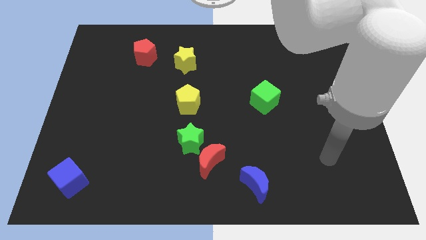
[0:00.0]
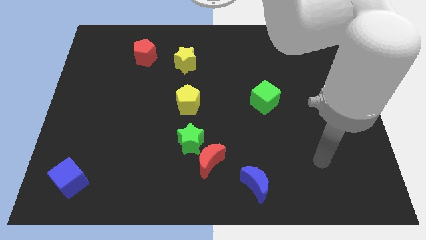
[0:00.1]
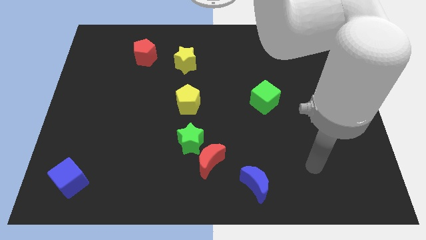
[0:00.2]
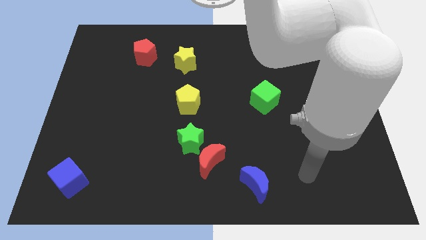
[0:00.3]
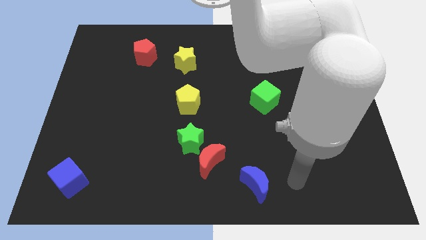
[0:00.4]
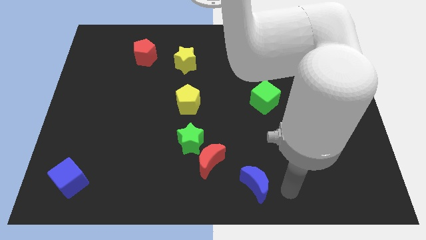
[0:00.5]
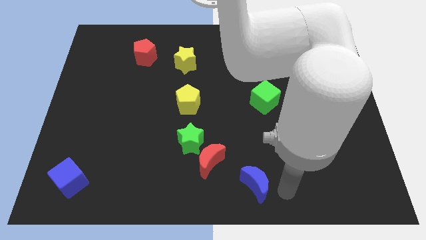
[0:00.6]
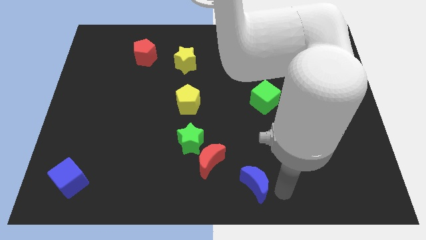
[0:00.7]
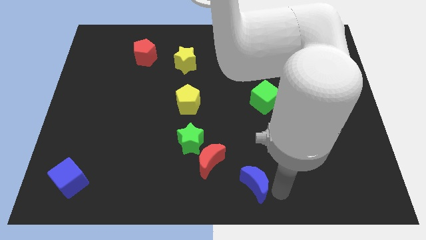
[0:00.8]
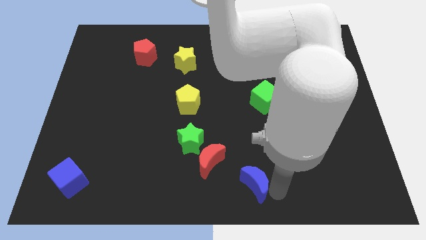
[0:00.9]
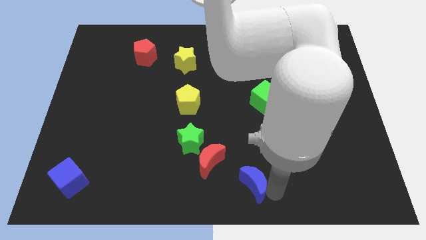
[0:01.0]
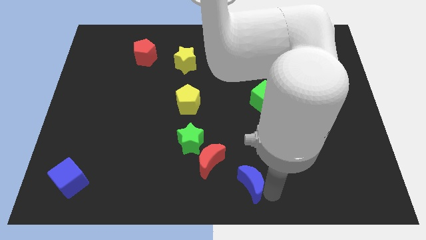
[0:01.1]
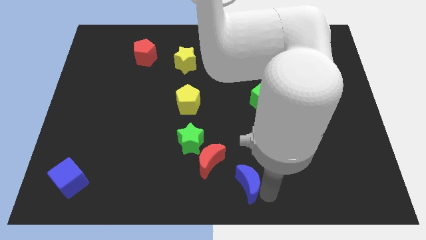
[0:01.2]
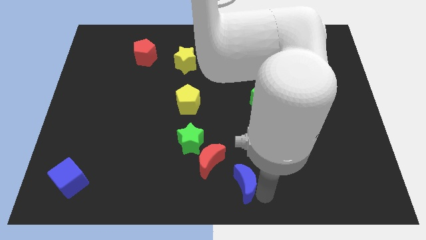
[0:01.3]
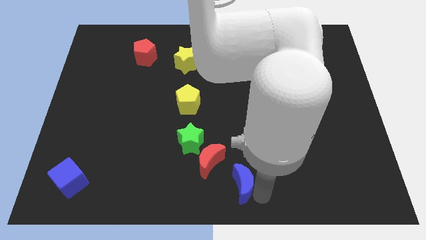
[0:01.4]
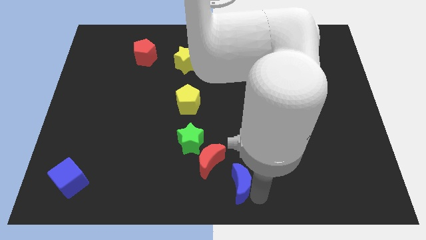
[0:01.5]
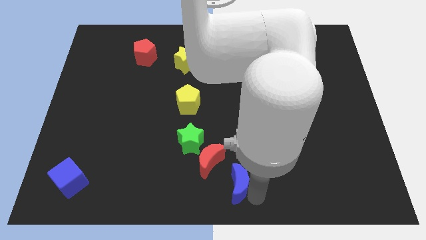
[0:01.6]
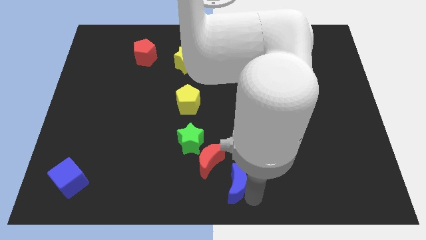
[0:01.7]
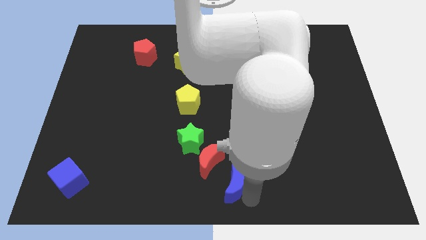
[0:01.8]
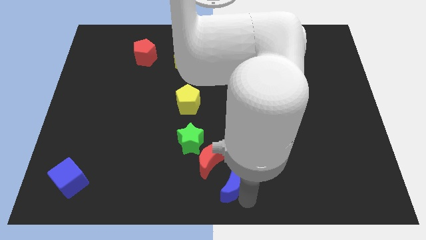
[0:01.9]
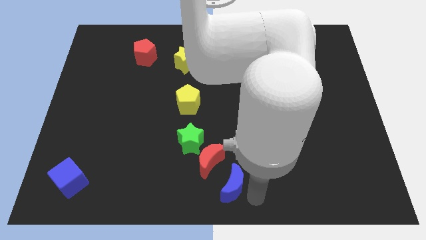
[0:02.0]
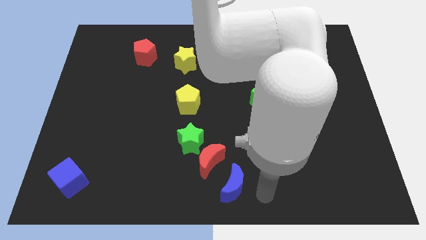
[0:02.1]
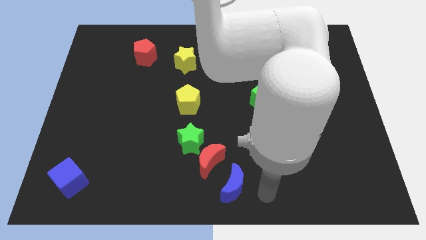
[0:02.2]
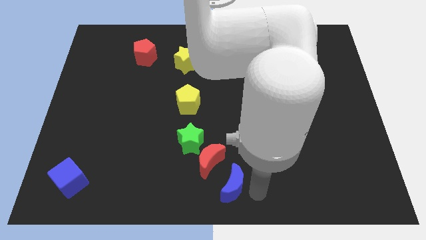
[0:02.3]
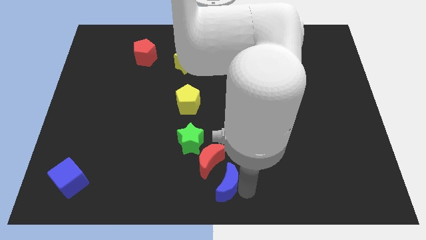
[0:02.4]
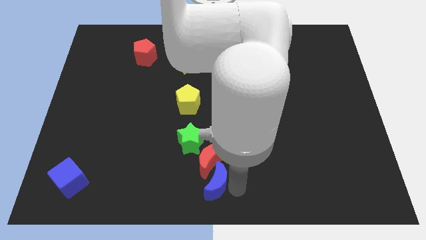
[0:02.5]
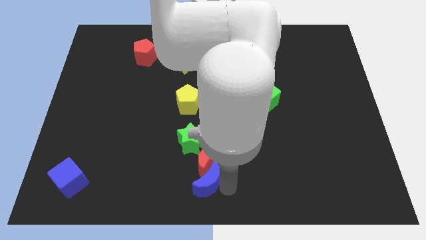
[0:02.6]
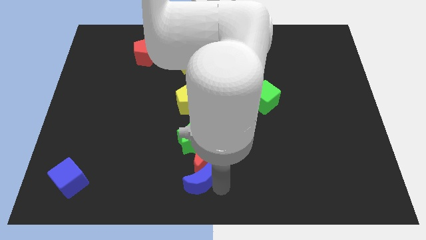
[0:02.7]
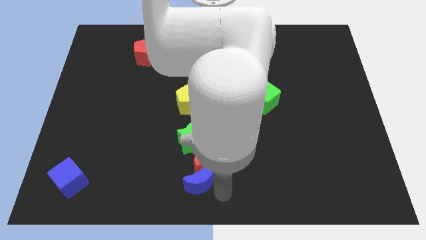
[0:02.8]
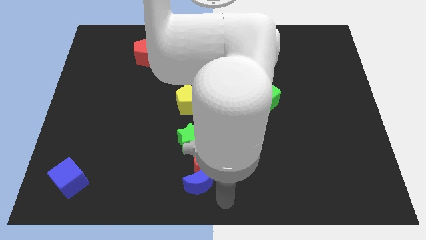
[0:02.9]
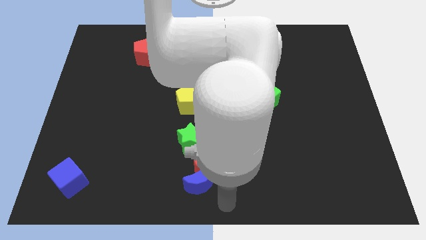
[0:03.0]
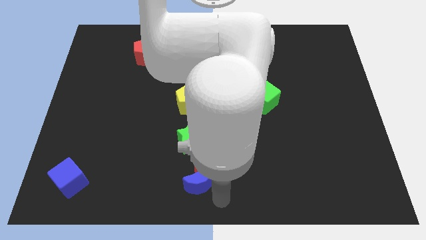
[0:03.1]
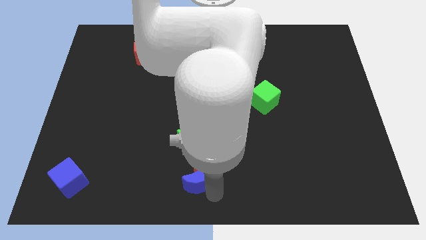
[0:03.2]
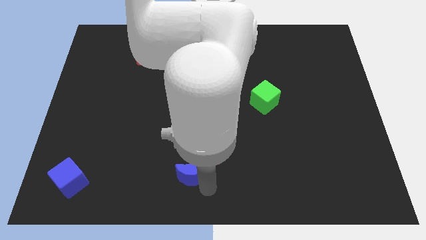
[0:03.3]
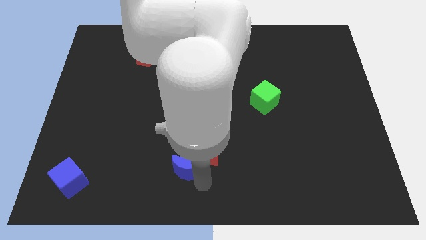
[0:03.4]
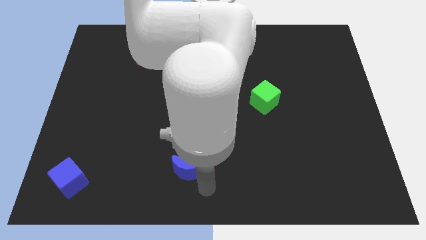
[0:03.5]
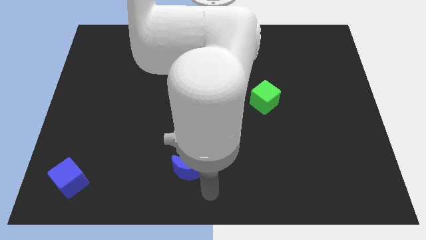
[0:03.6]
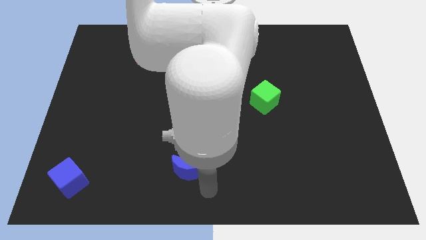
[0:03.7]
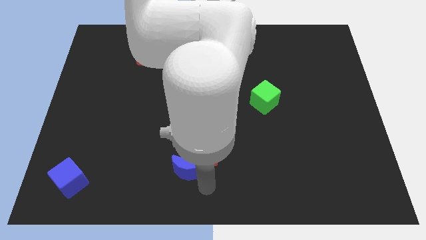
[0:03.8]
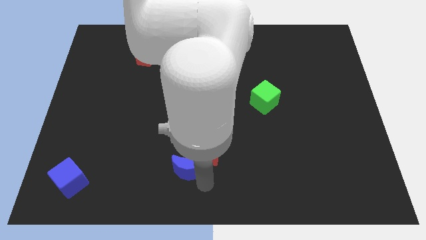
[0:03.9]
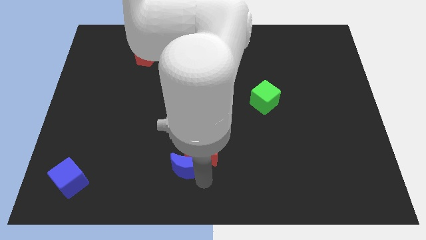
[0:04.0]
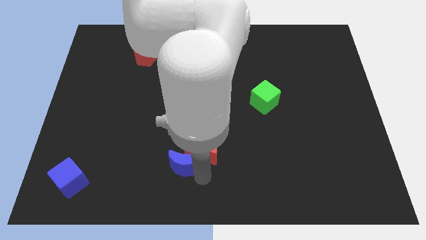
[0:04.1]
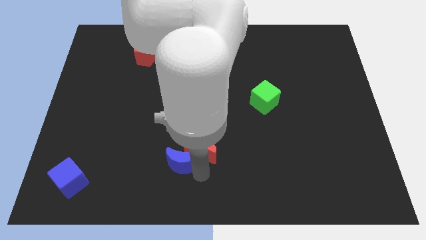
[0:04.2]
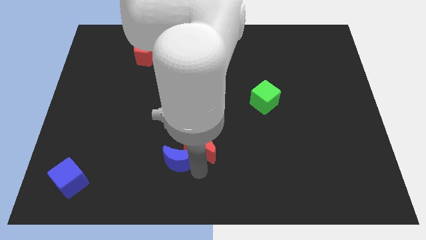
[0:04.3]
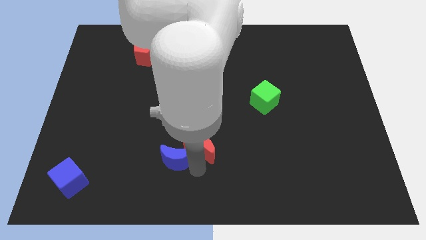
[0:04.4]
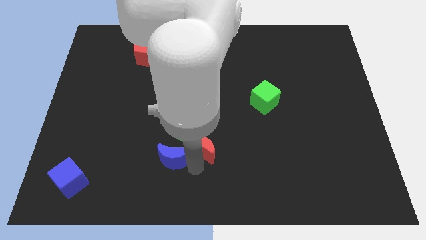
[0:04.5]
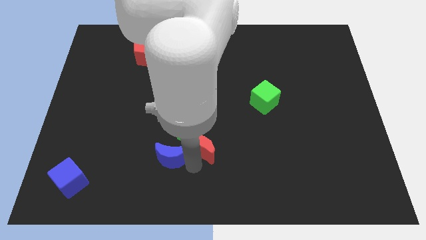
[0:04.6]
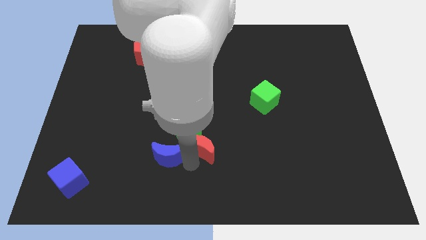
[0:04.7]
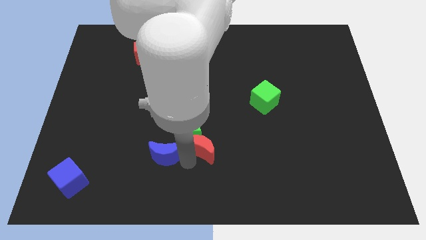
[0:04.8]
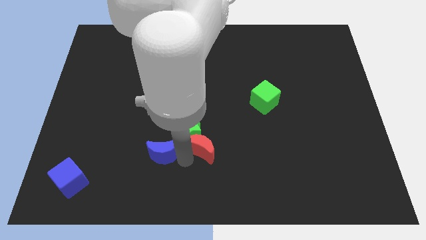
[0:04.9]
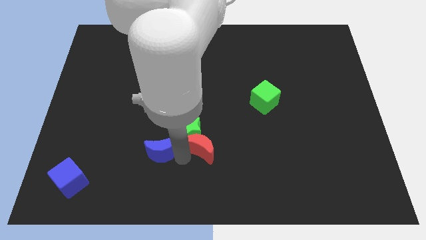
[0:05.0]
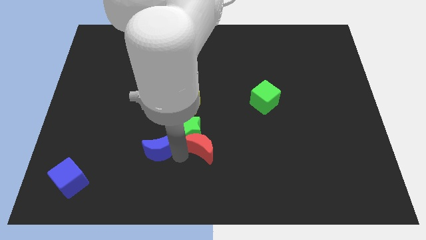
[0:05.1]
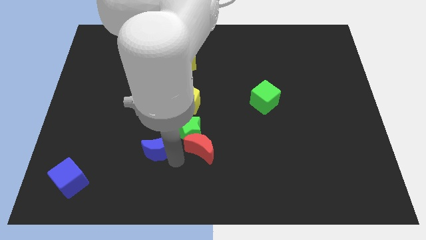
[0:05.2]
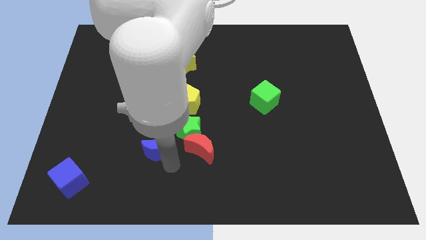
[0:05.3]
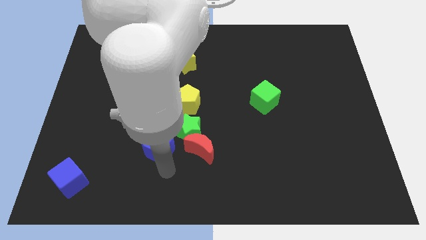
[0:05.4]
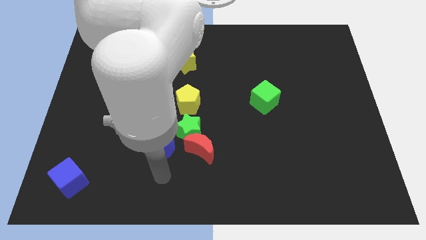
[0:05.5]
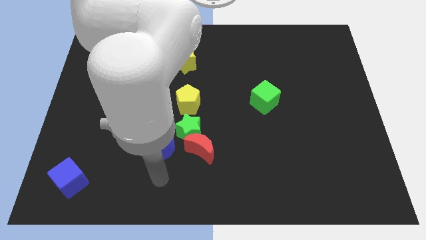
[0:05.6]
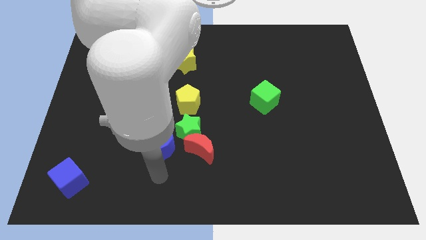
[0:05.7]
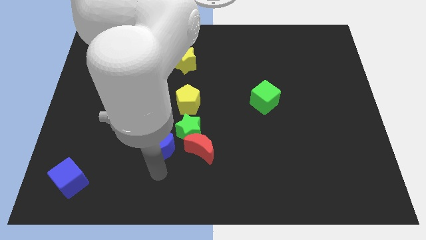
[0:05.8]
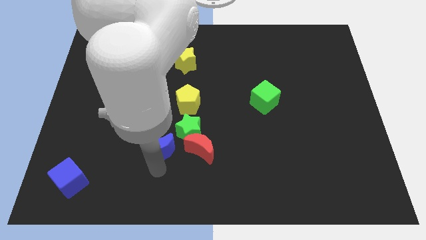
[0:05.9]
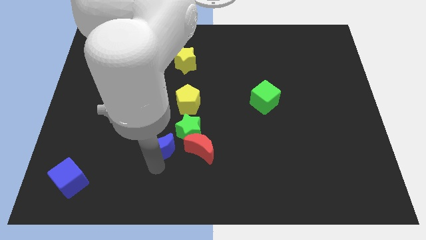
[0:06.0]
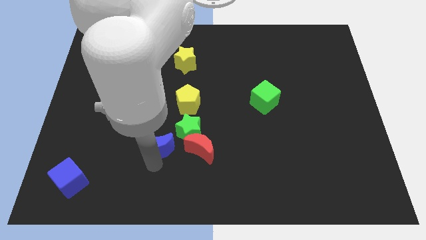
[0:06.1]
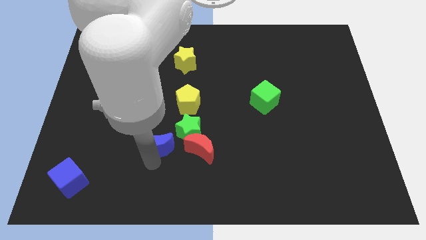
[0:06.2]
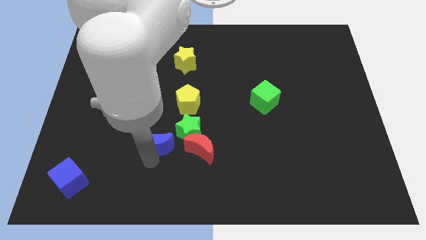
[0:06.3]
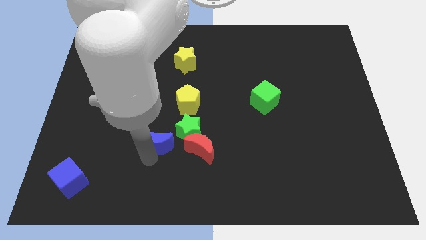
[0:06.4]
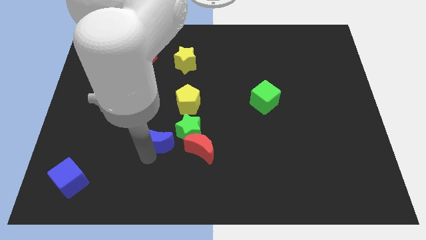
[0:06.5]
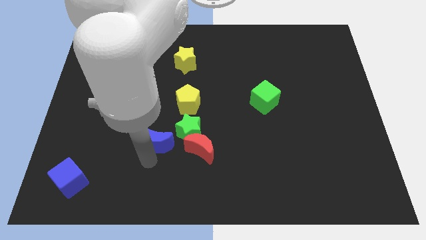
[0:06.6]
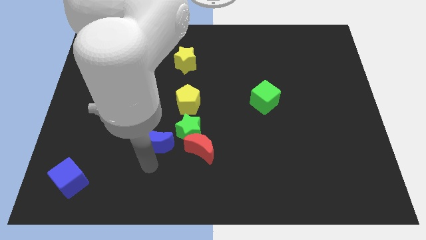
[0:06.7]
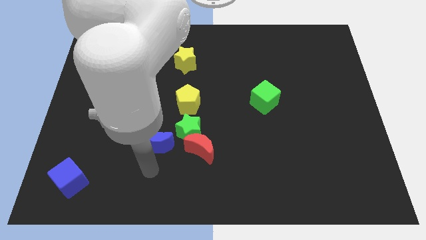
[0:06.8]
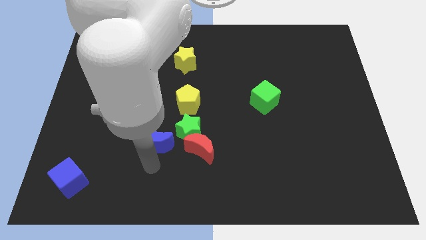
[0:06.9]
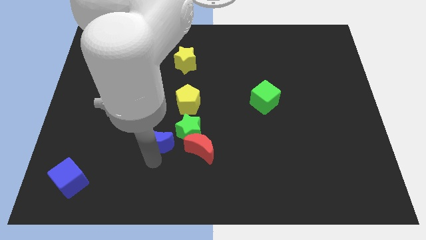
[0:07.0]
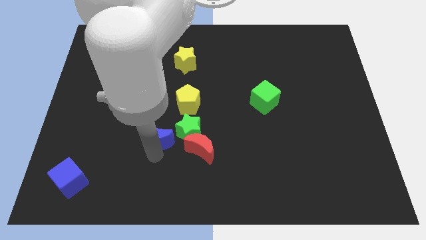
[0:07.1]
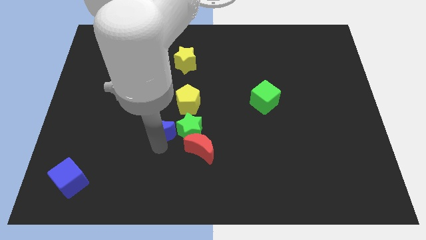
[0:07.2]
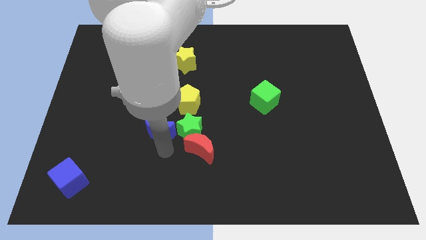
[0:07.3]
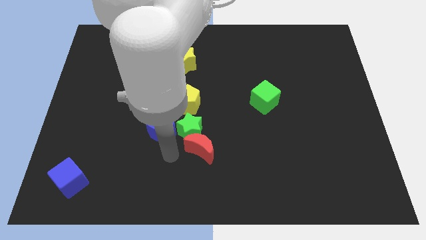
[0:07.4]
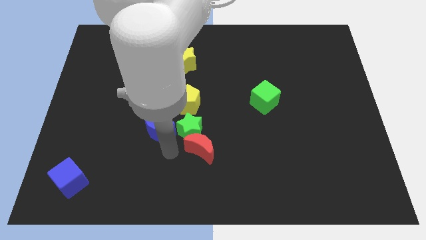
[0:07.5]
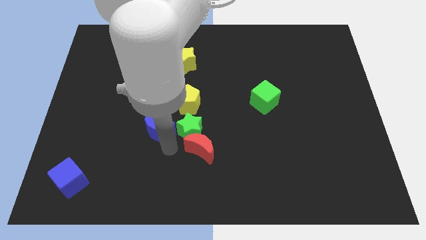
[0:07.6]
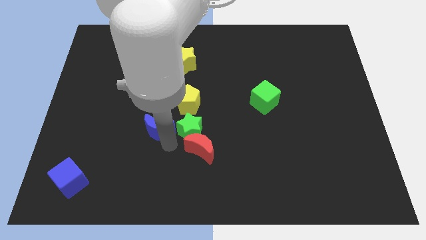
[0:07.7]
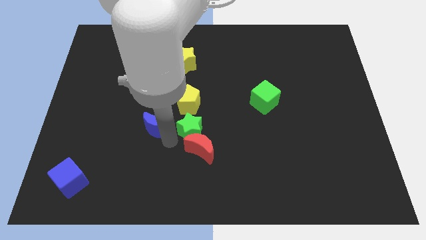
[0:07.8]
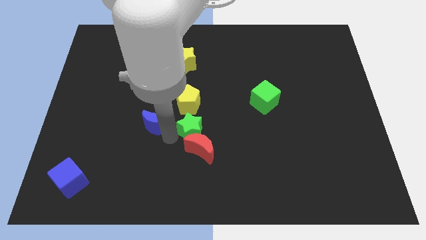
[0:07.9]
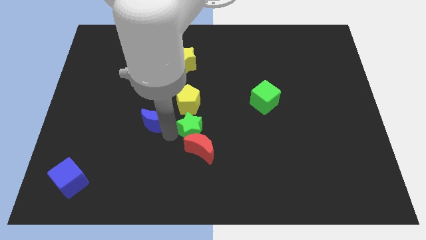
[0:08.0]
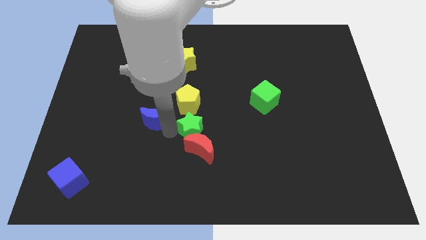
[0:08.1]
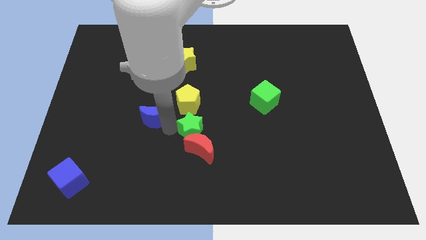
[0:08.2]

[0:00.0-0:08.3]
move the blue moon to the left side of the yellow pentagon
